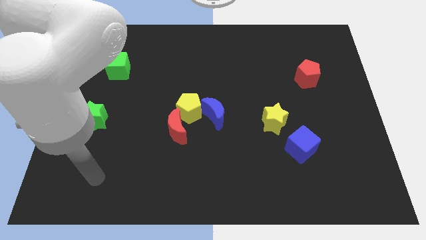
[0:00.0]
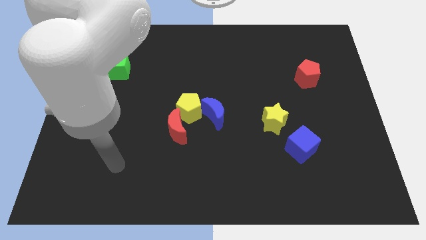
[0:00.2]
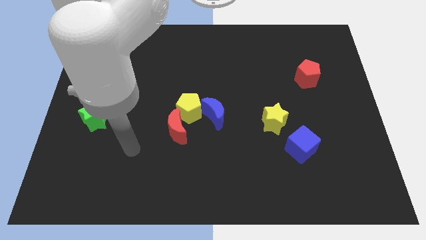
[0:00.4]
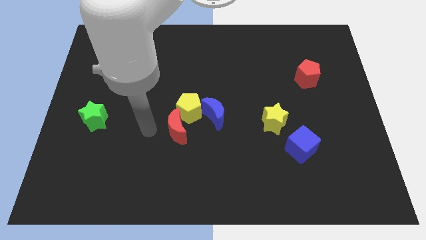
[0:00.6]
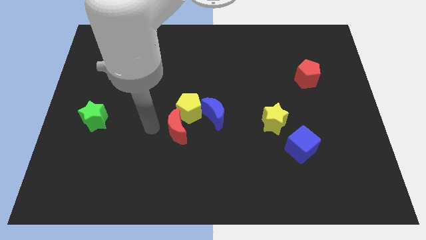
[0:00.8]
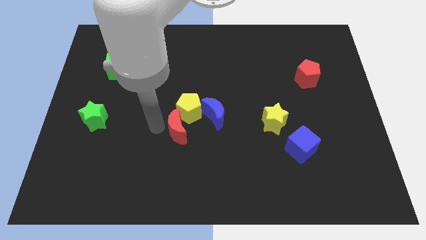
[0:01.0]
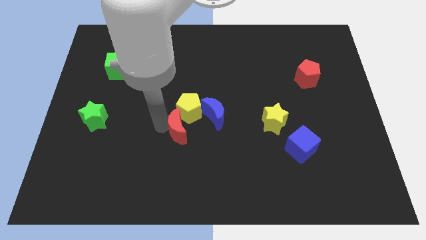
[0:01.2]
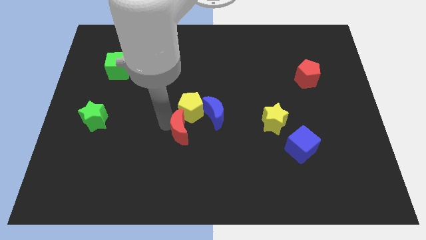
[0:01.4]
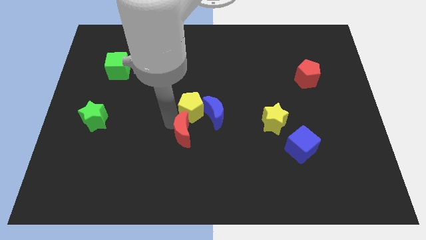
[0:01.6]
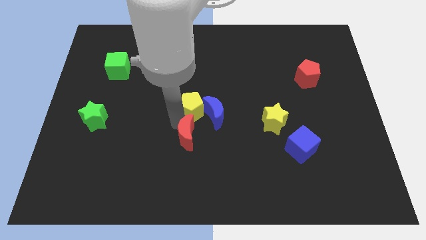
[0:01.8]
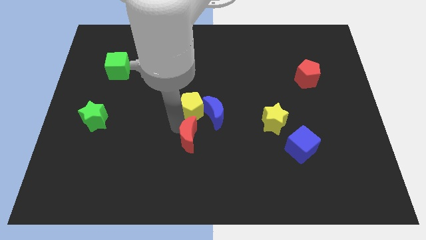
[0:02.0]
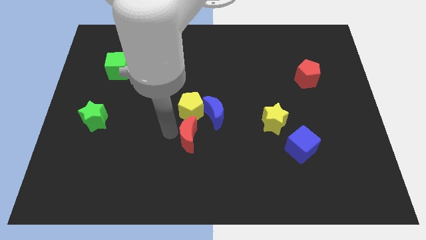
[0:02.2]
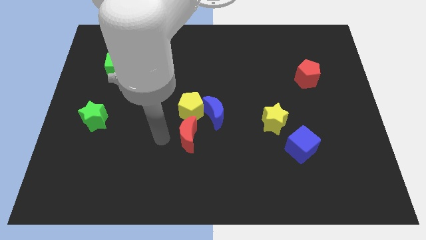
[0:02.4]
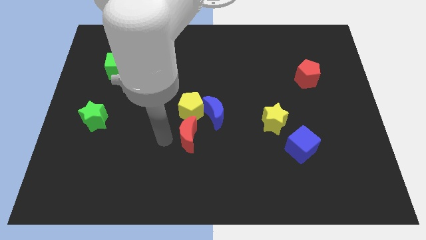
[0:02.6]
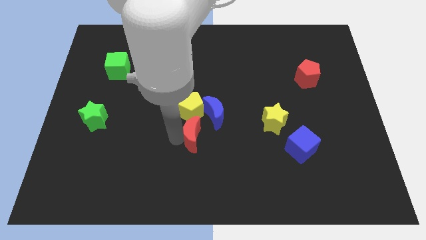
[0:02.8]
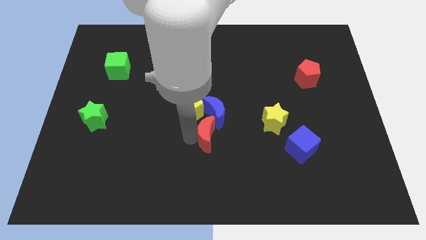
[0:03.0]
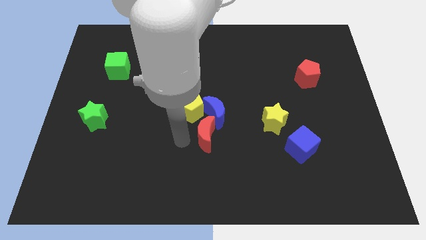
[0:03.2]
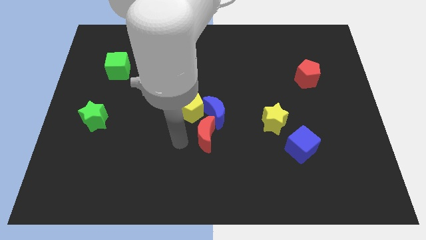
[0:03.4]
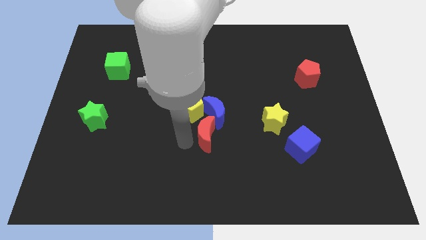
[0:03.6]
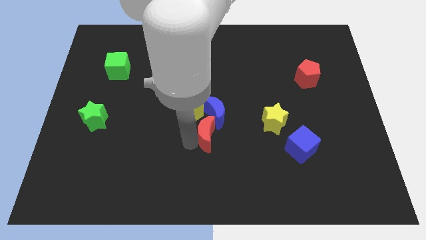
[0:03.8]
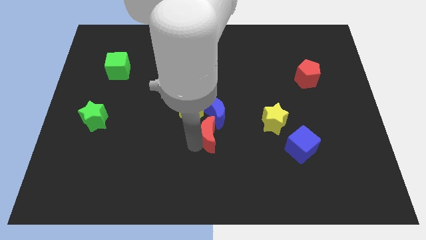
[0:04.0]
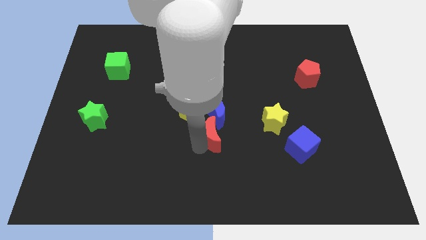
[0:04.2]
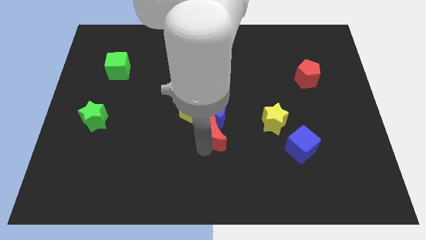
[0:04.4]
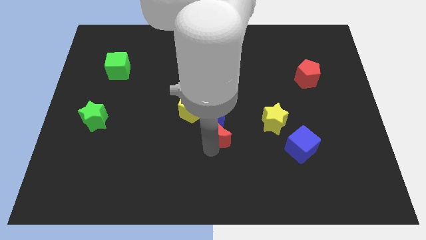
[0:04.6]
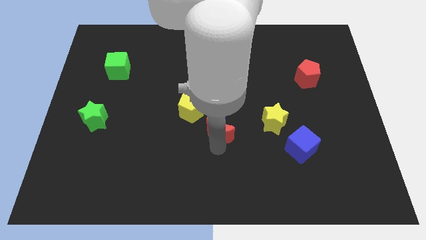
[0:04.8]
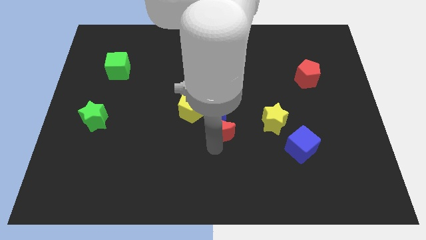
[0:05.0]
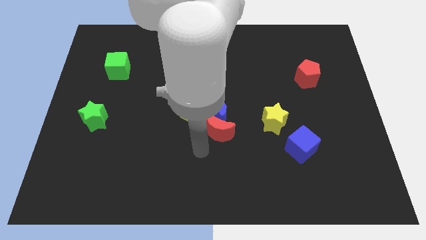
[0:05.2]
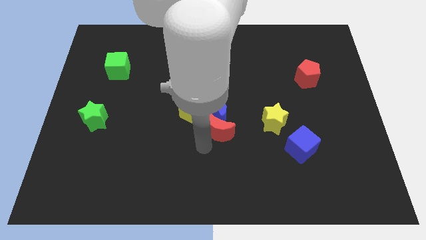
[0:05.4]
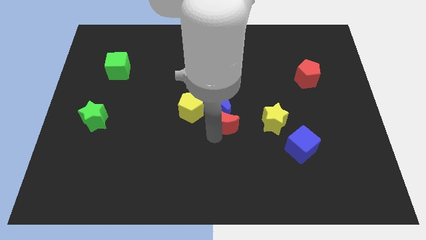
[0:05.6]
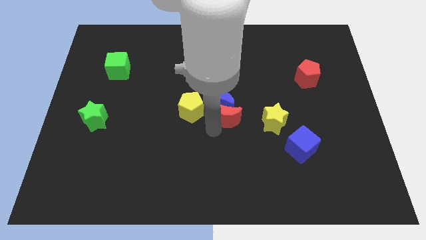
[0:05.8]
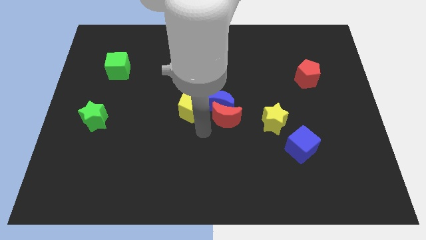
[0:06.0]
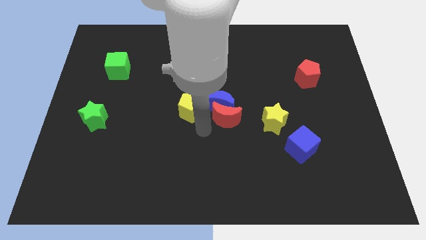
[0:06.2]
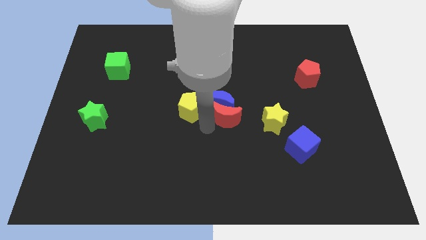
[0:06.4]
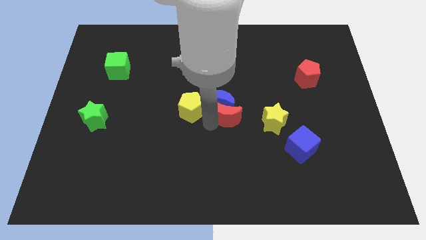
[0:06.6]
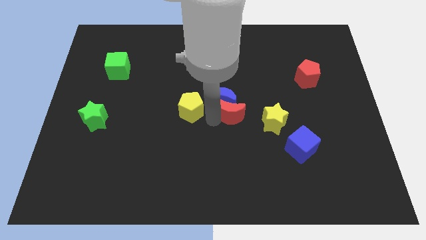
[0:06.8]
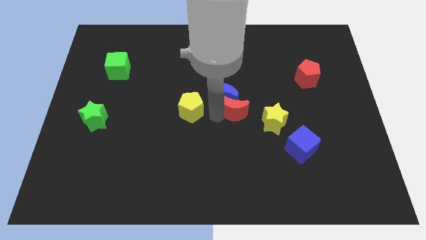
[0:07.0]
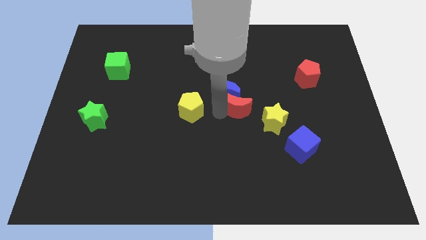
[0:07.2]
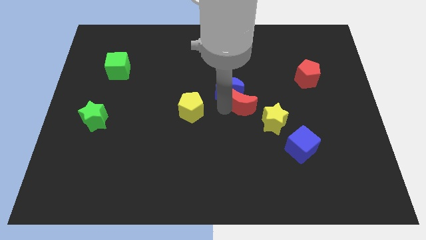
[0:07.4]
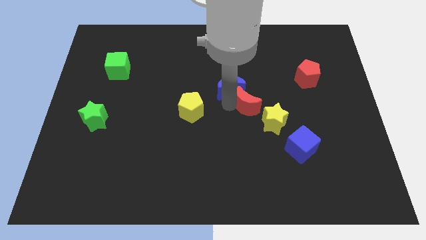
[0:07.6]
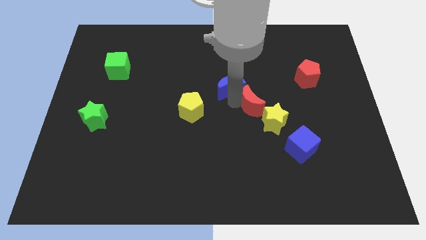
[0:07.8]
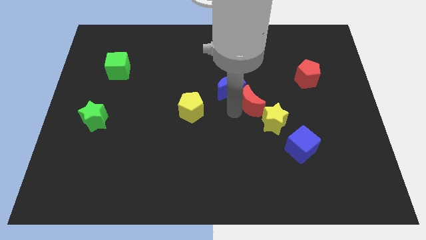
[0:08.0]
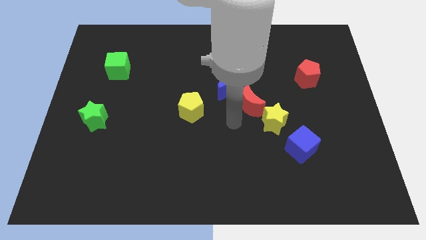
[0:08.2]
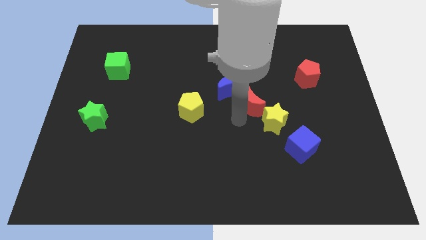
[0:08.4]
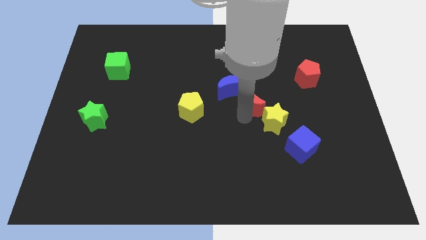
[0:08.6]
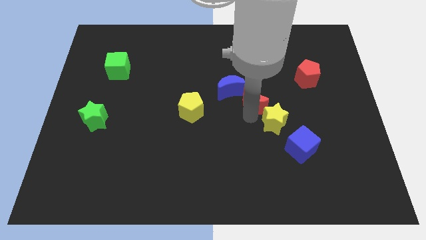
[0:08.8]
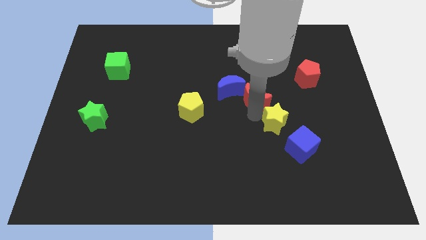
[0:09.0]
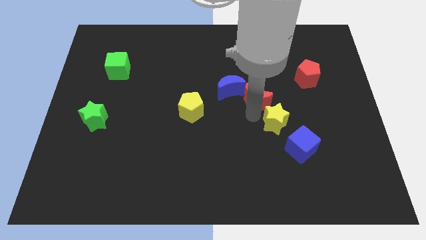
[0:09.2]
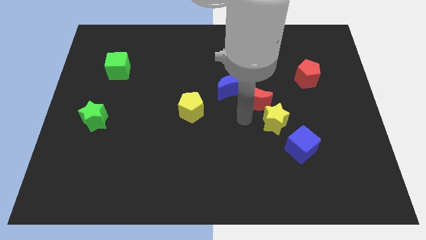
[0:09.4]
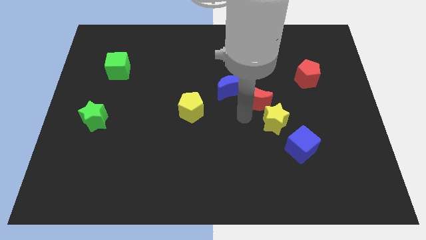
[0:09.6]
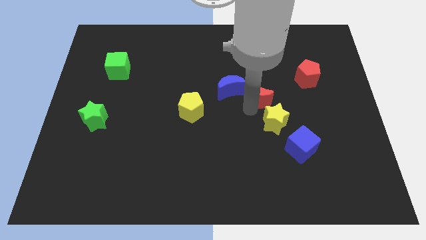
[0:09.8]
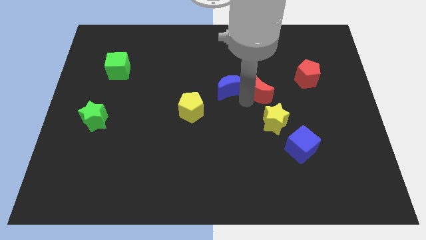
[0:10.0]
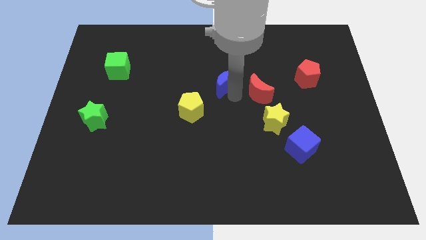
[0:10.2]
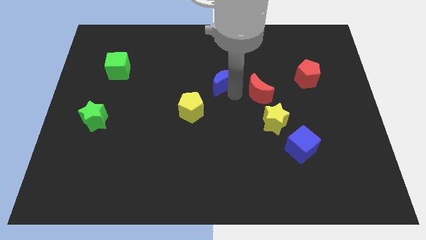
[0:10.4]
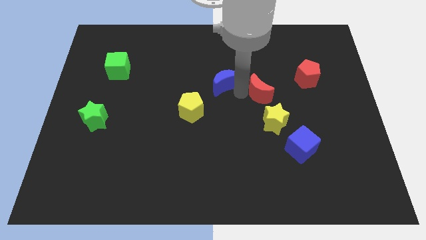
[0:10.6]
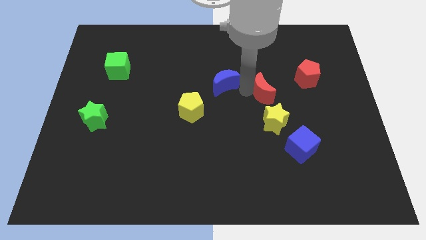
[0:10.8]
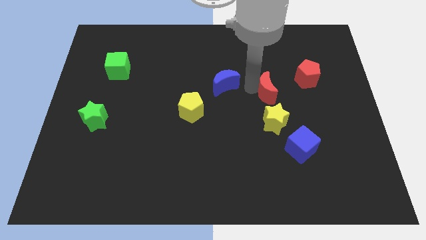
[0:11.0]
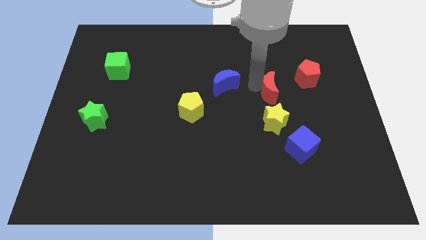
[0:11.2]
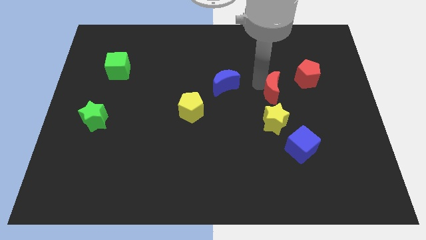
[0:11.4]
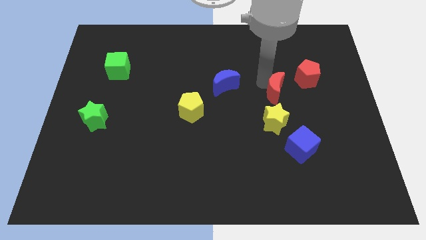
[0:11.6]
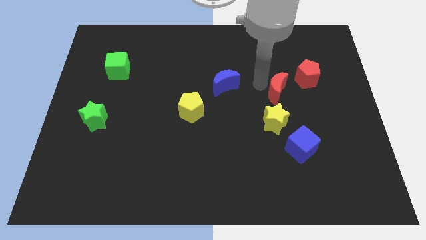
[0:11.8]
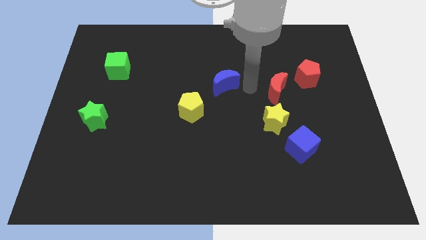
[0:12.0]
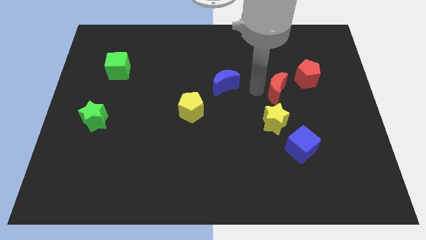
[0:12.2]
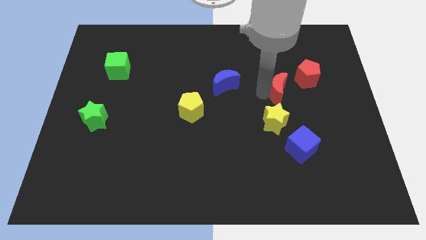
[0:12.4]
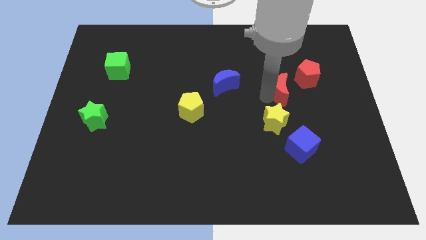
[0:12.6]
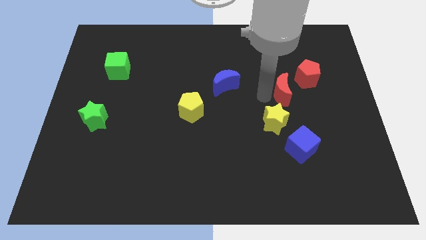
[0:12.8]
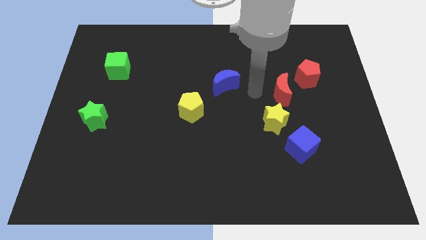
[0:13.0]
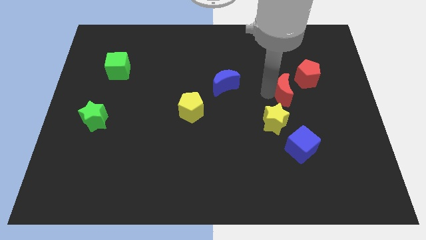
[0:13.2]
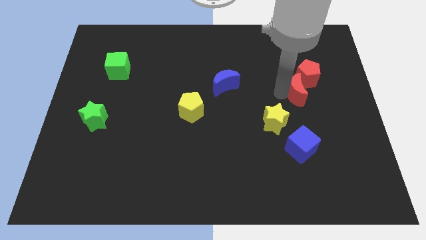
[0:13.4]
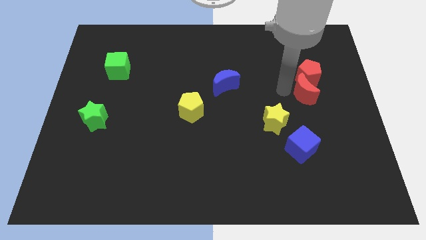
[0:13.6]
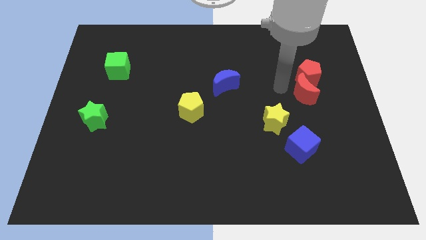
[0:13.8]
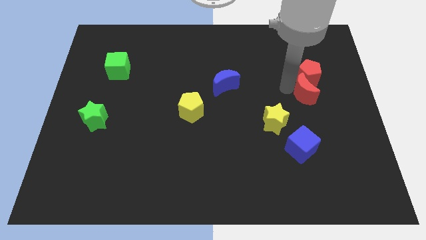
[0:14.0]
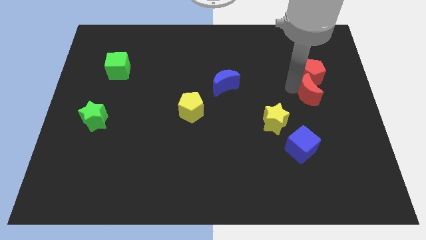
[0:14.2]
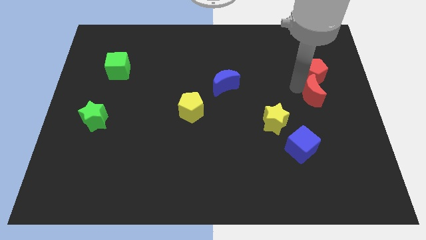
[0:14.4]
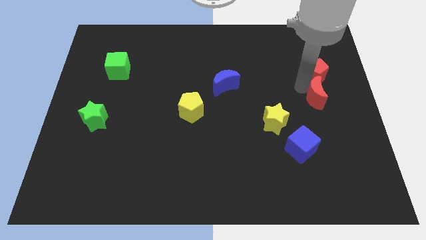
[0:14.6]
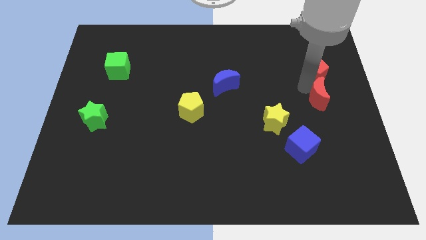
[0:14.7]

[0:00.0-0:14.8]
push the red moon to the right side of the board

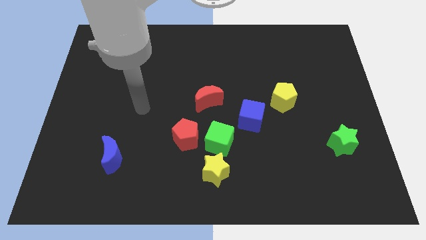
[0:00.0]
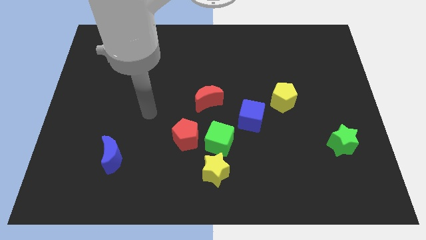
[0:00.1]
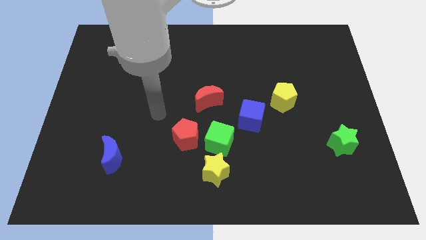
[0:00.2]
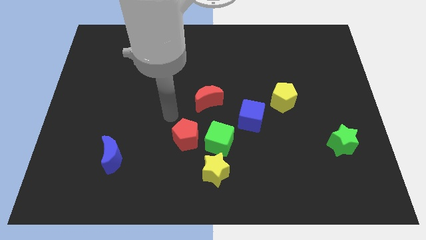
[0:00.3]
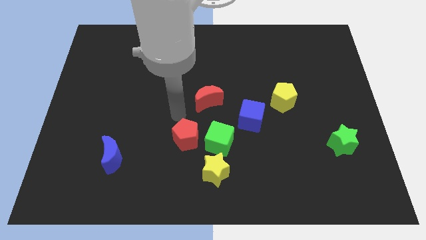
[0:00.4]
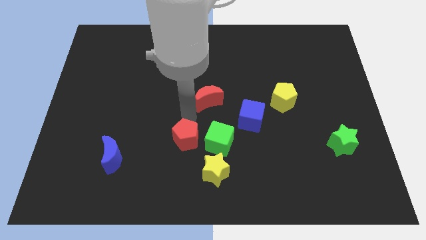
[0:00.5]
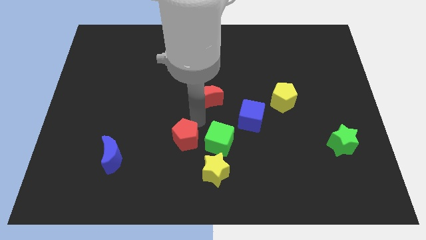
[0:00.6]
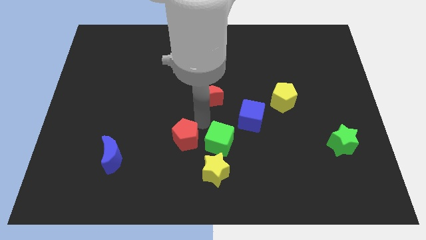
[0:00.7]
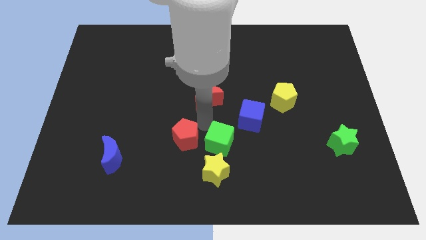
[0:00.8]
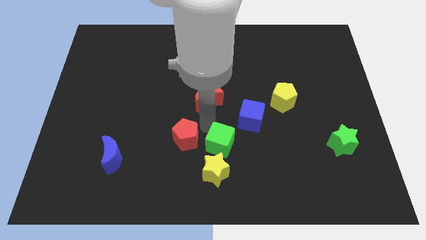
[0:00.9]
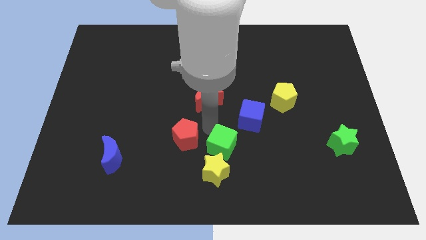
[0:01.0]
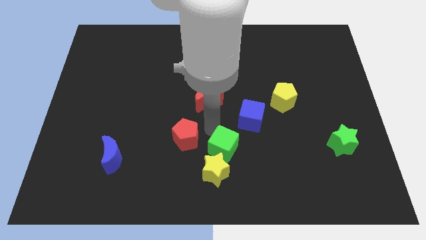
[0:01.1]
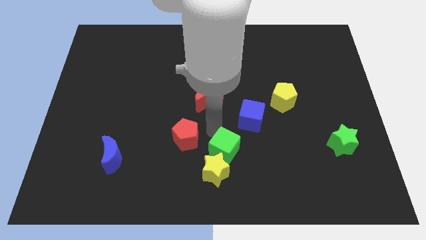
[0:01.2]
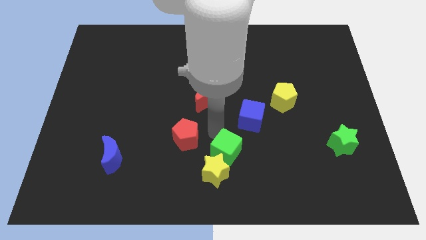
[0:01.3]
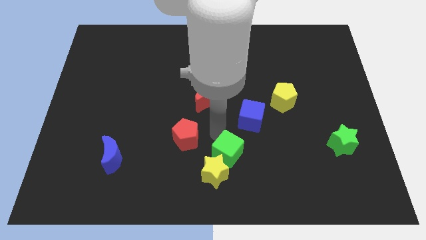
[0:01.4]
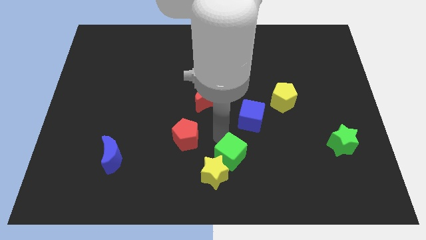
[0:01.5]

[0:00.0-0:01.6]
move the green cube to the bottom
